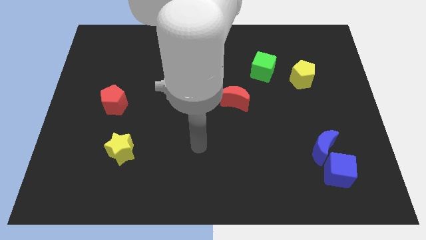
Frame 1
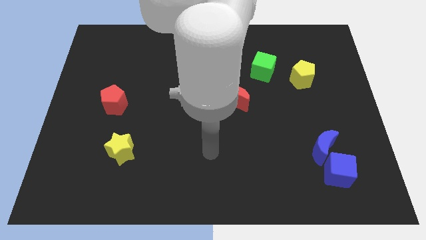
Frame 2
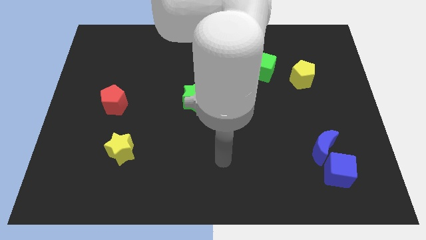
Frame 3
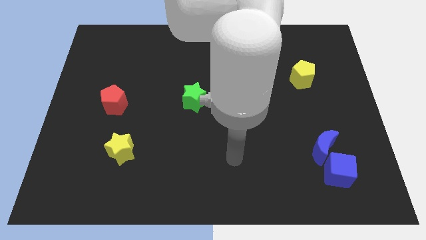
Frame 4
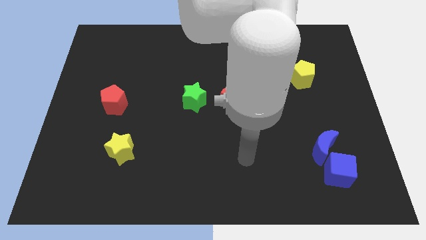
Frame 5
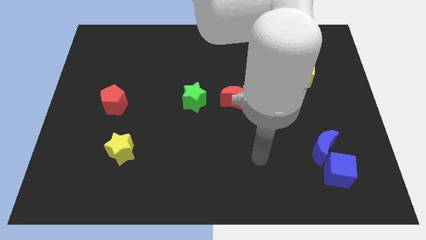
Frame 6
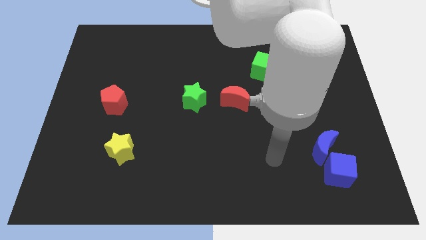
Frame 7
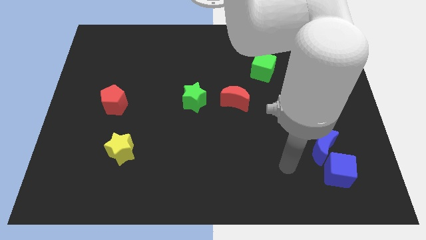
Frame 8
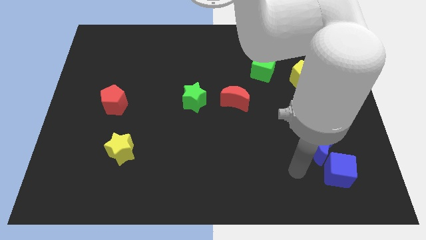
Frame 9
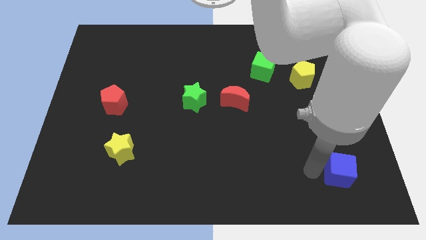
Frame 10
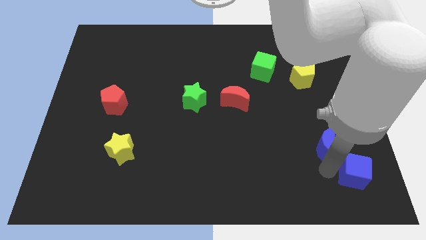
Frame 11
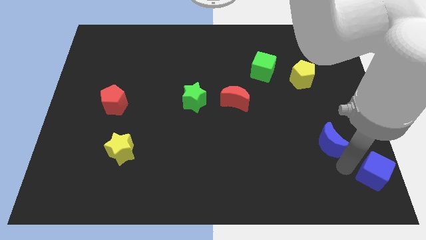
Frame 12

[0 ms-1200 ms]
separate the blue moon from the blue cube

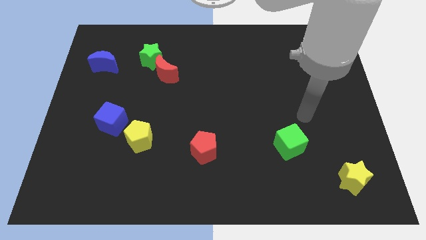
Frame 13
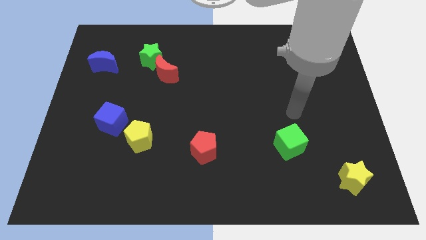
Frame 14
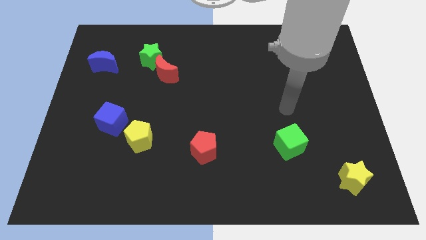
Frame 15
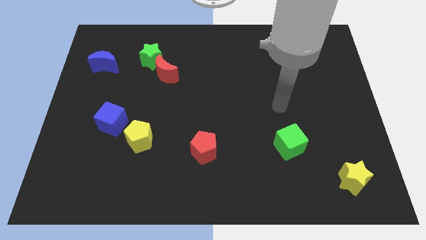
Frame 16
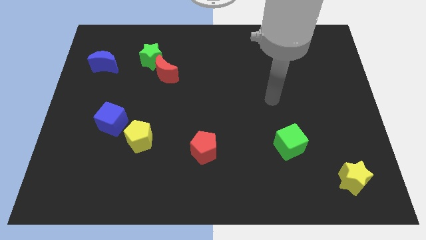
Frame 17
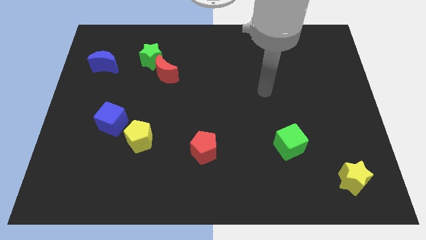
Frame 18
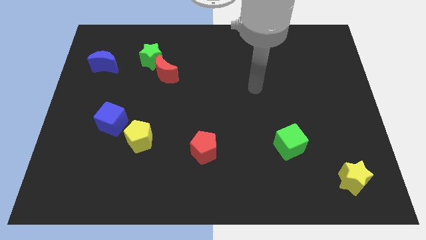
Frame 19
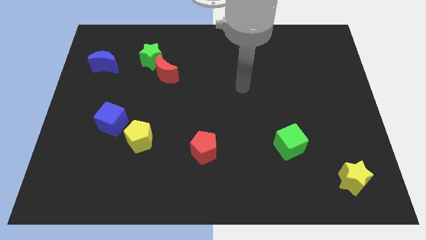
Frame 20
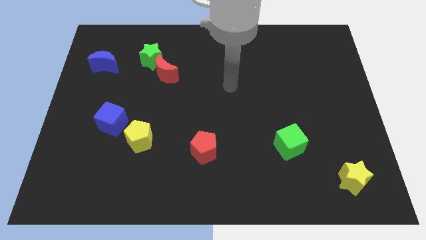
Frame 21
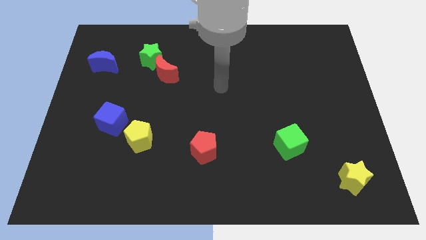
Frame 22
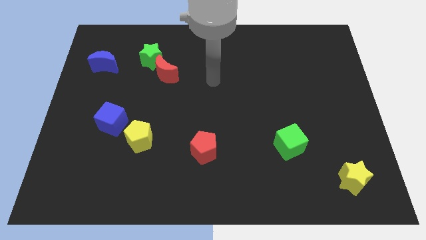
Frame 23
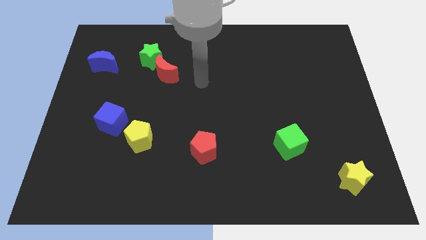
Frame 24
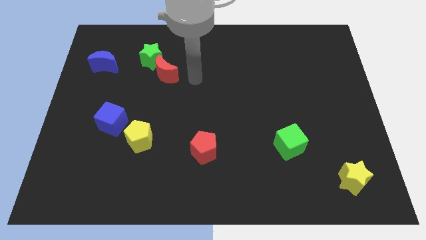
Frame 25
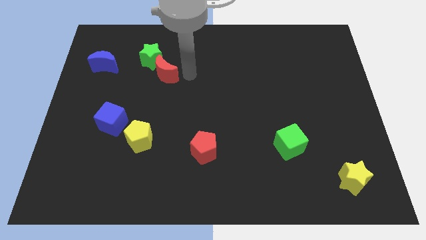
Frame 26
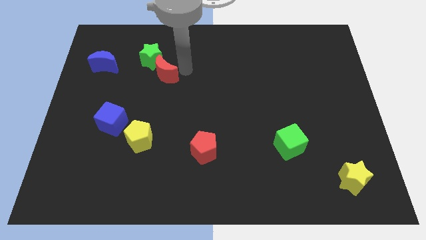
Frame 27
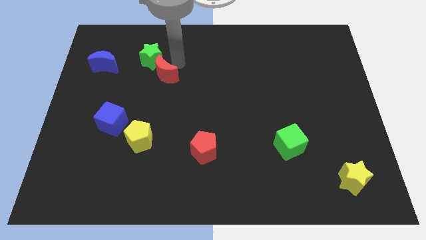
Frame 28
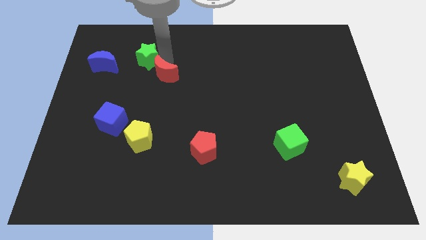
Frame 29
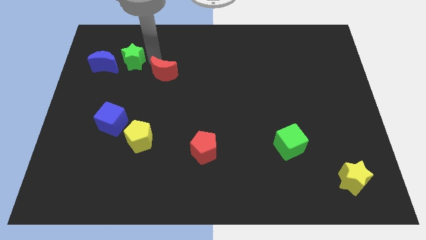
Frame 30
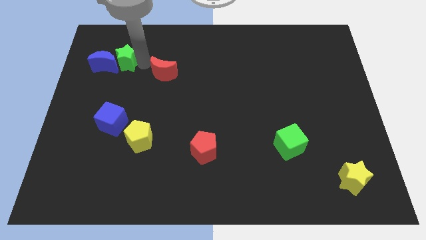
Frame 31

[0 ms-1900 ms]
move the red moon away from the green star

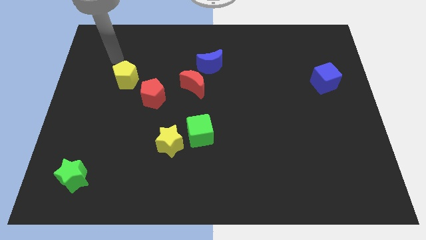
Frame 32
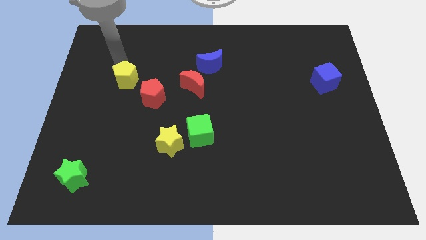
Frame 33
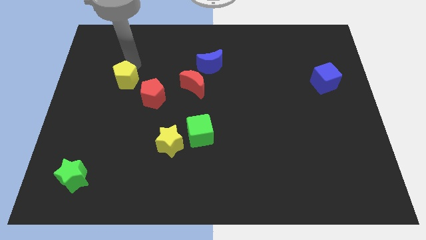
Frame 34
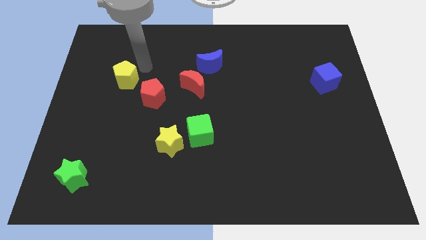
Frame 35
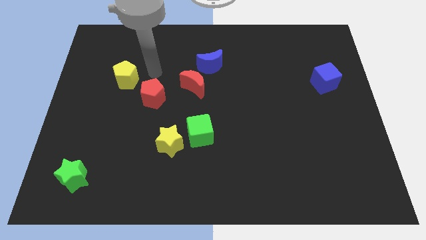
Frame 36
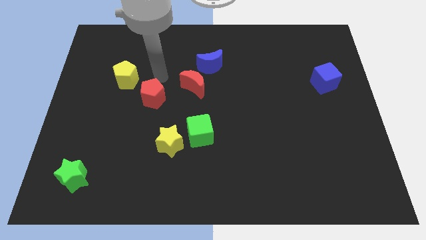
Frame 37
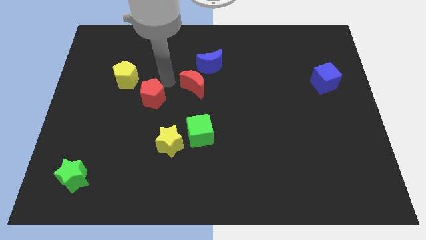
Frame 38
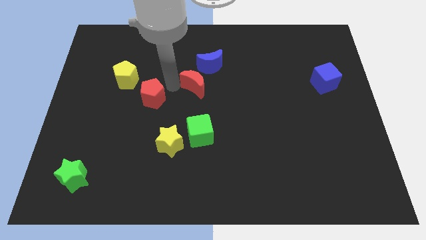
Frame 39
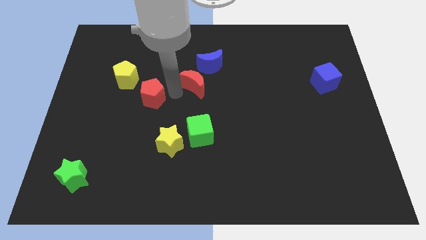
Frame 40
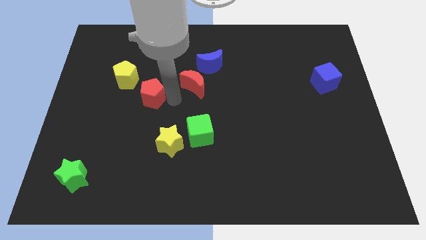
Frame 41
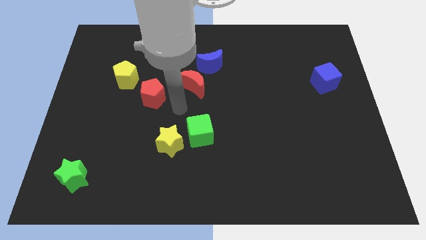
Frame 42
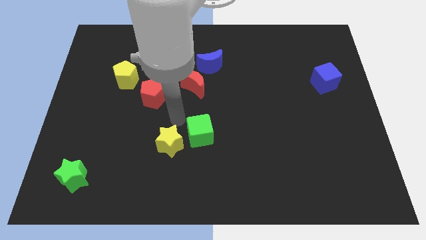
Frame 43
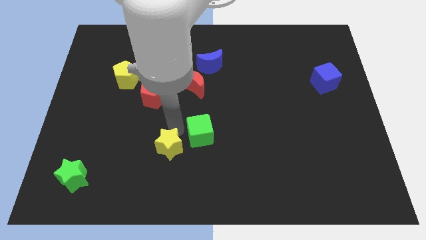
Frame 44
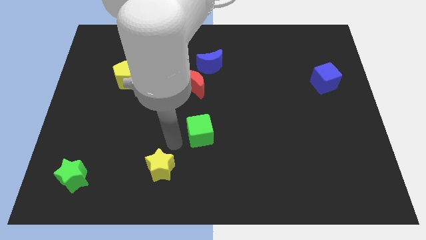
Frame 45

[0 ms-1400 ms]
move the green cube away from the yellow star

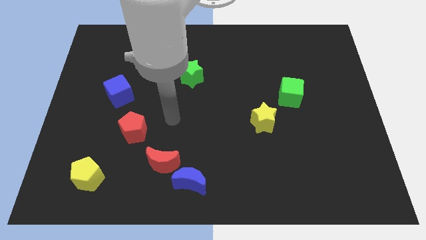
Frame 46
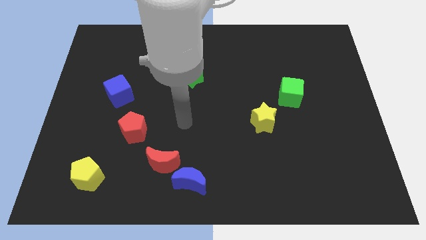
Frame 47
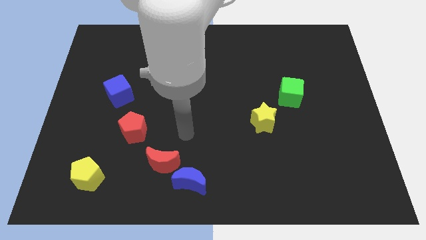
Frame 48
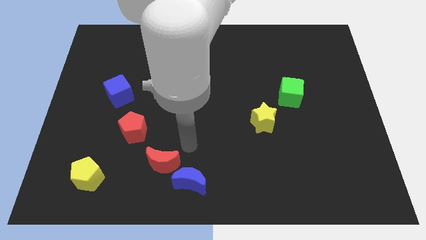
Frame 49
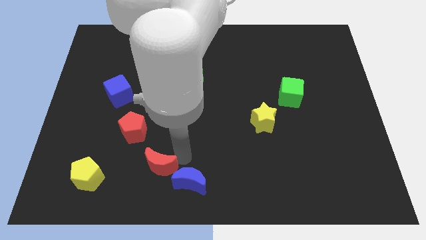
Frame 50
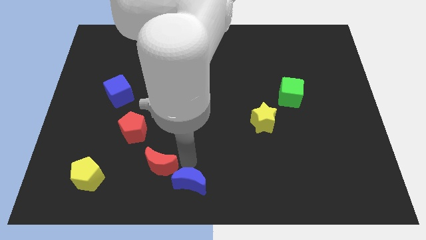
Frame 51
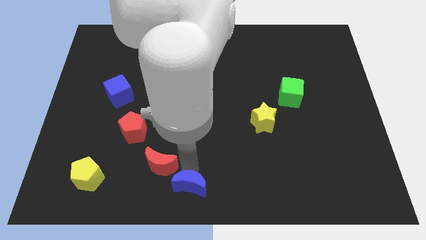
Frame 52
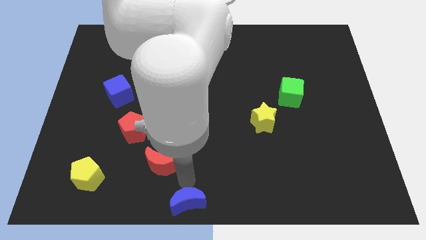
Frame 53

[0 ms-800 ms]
pull the red moon apart from the blue moon

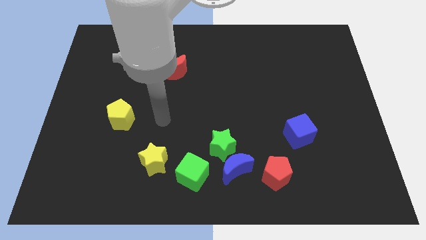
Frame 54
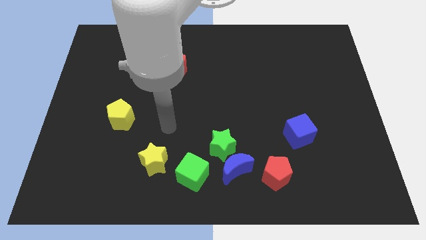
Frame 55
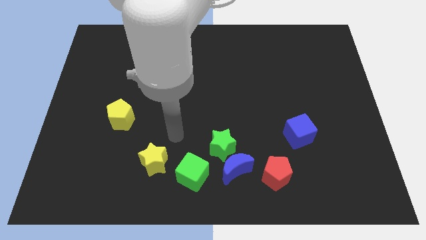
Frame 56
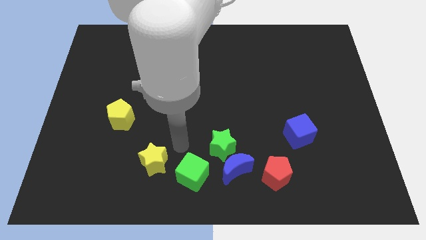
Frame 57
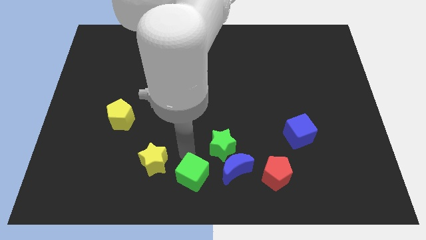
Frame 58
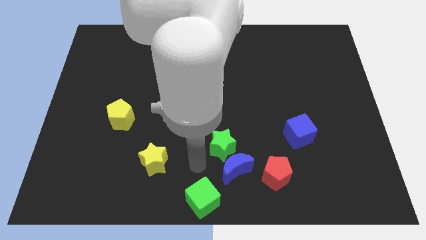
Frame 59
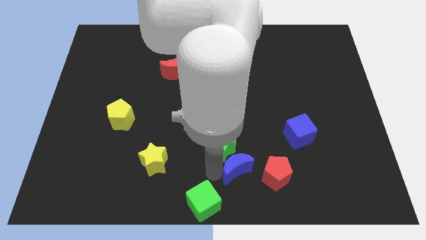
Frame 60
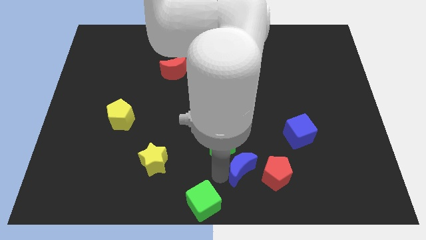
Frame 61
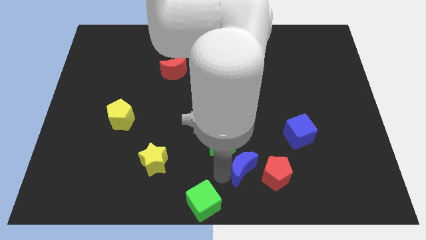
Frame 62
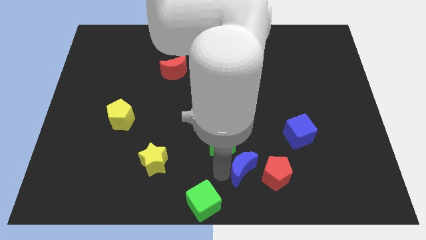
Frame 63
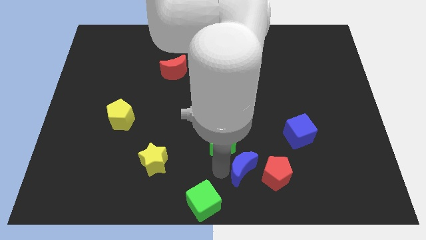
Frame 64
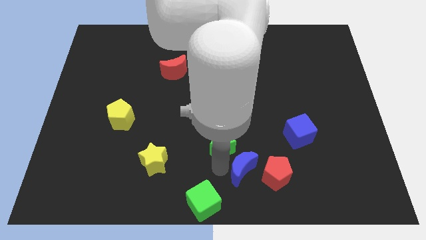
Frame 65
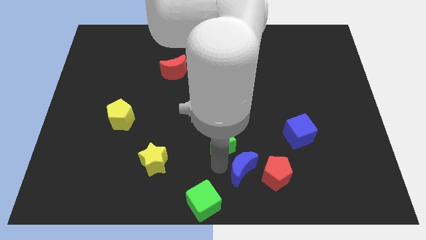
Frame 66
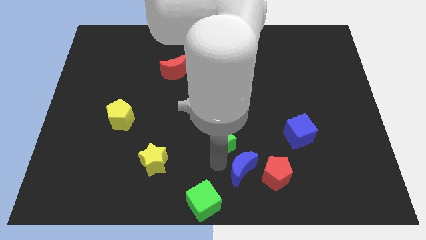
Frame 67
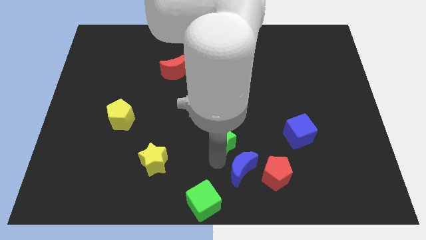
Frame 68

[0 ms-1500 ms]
move the green star away from the blue moon and green cube

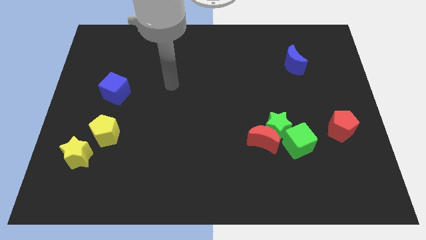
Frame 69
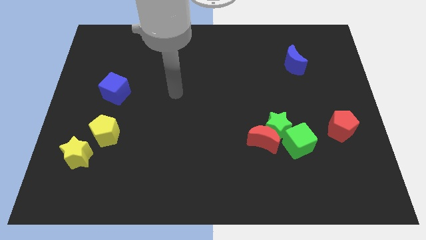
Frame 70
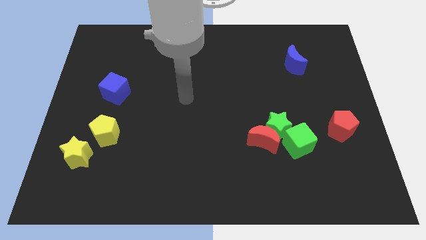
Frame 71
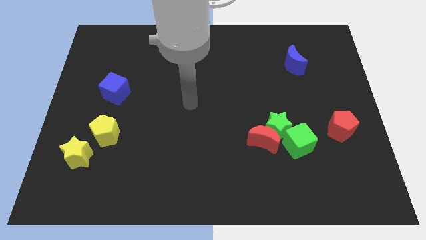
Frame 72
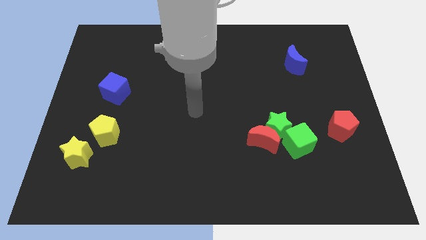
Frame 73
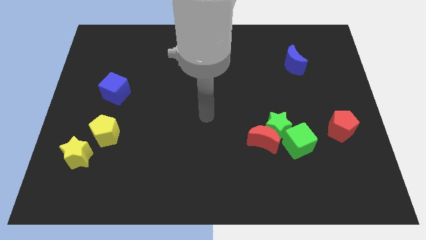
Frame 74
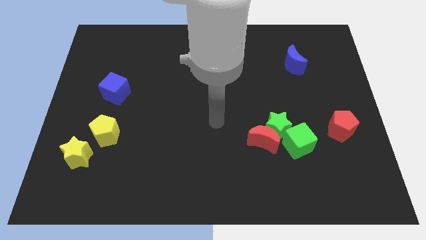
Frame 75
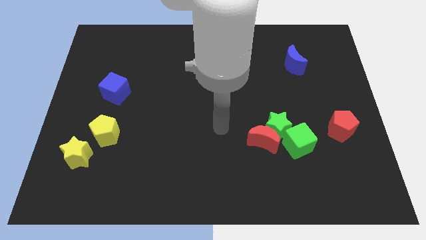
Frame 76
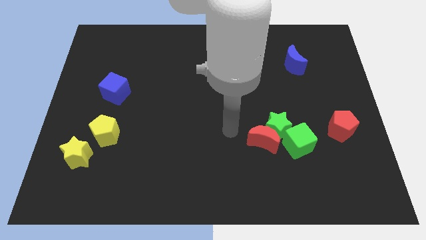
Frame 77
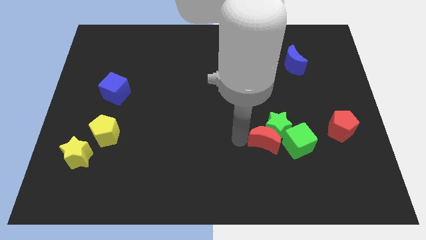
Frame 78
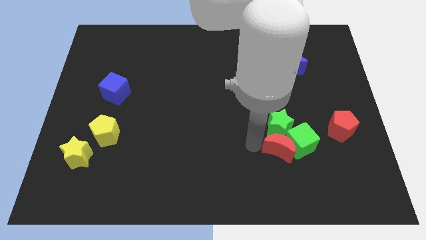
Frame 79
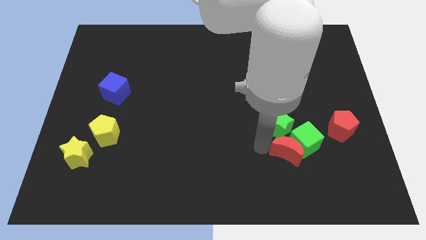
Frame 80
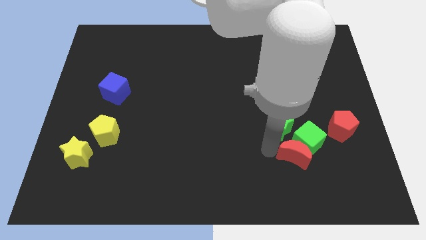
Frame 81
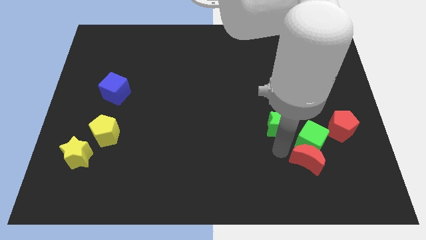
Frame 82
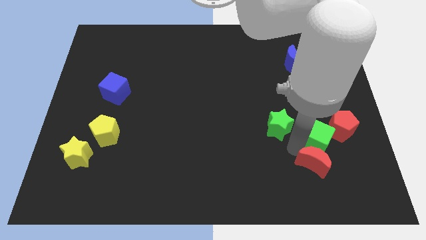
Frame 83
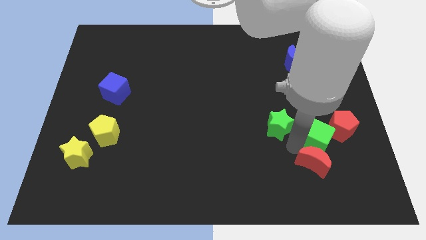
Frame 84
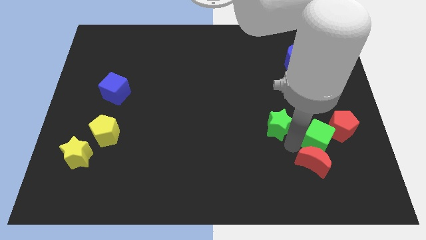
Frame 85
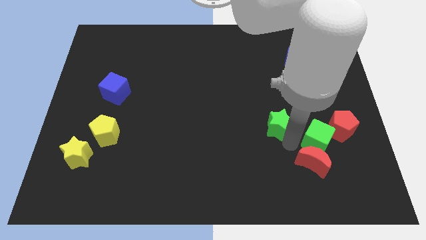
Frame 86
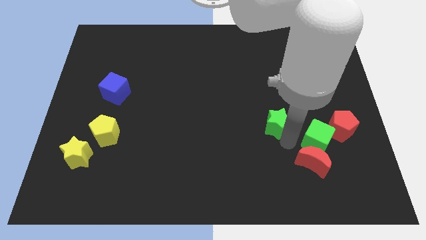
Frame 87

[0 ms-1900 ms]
separate the green star from the red moon and green cube

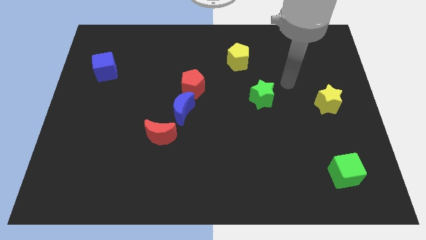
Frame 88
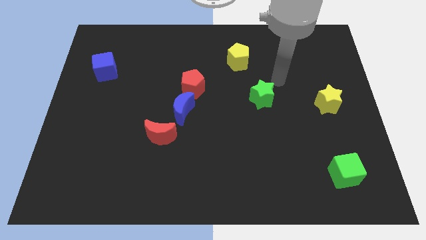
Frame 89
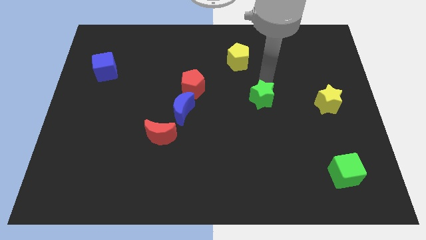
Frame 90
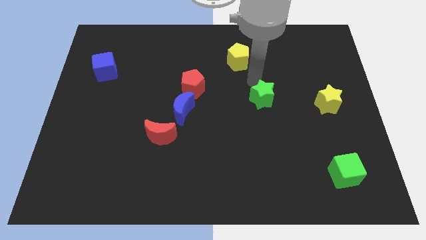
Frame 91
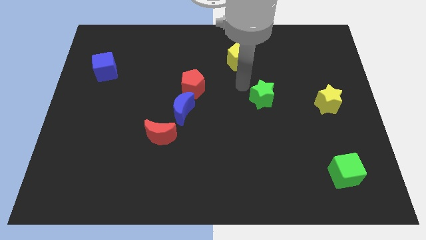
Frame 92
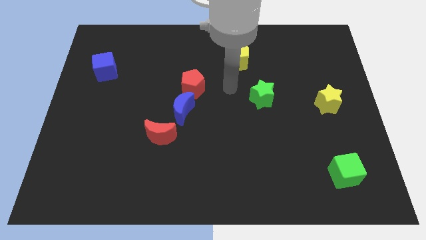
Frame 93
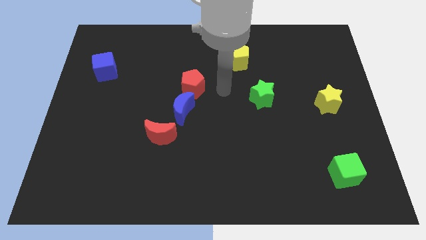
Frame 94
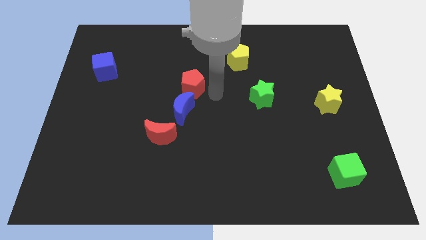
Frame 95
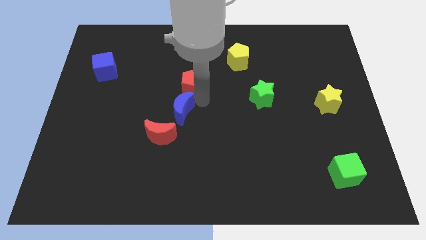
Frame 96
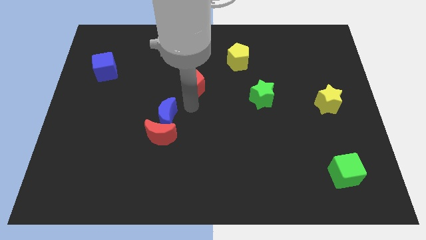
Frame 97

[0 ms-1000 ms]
move the red pentagon away from the blue moon
